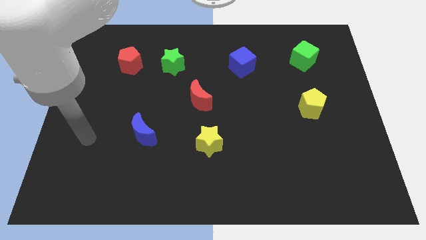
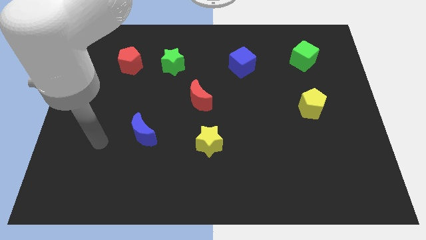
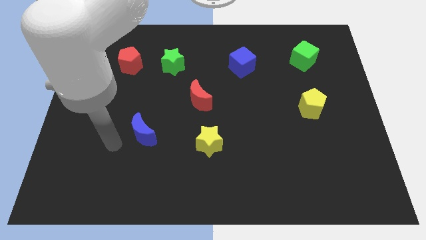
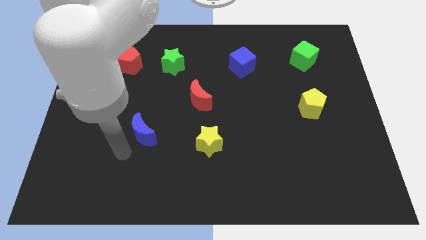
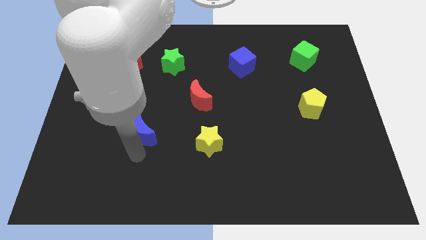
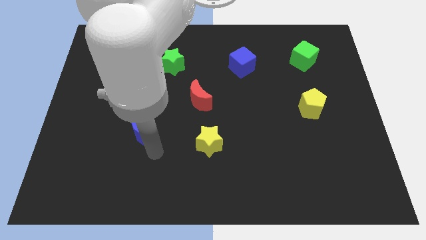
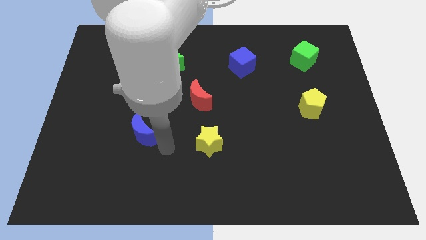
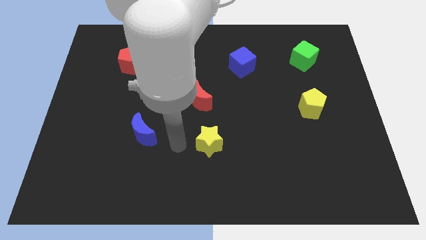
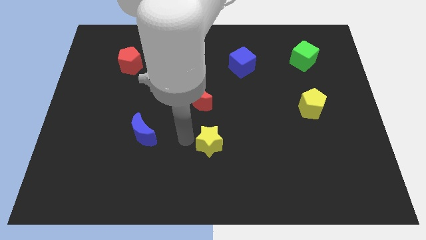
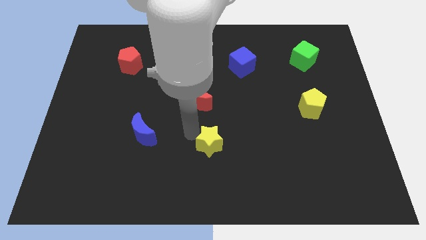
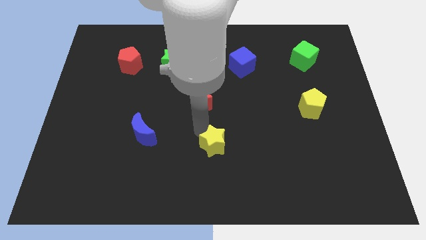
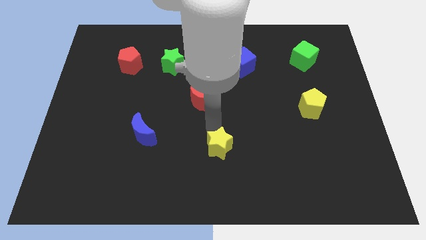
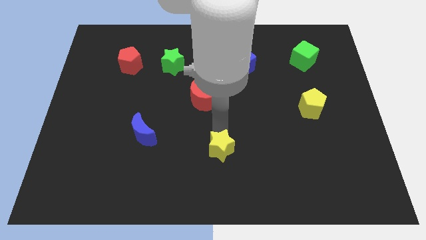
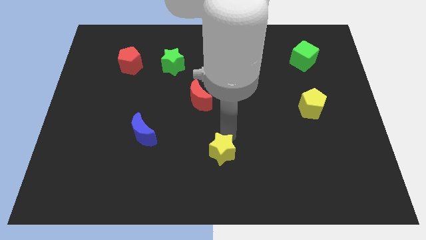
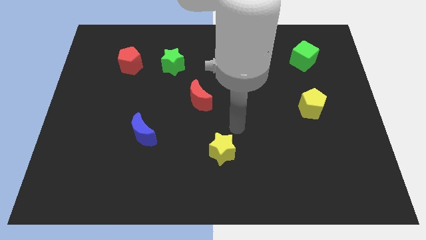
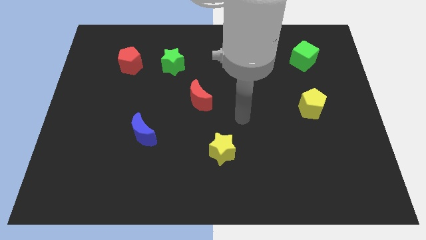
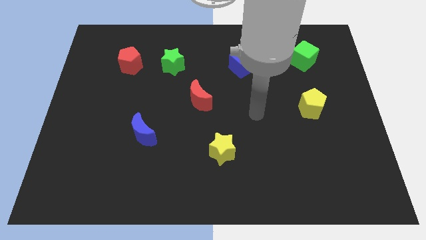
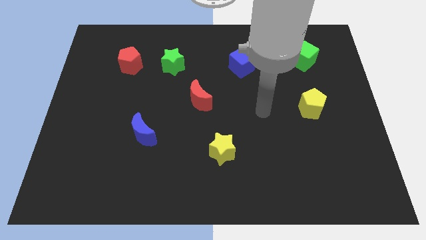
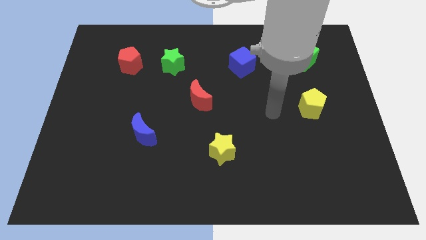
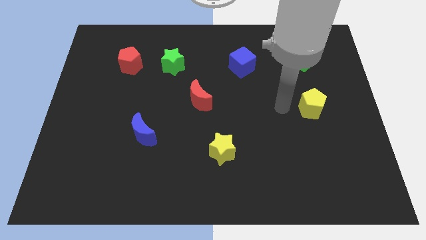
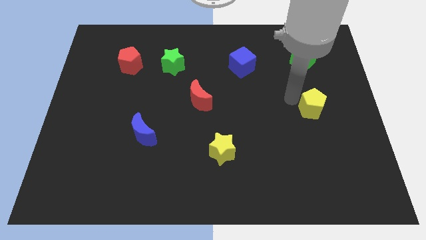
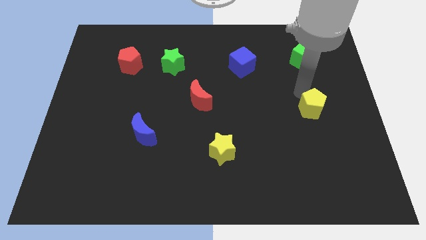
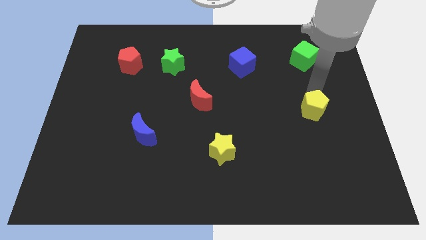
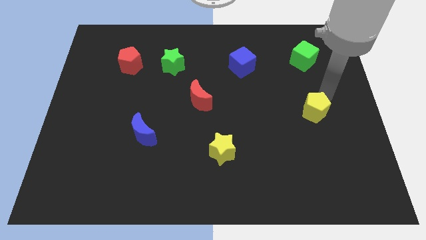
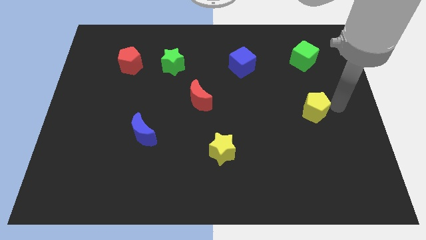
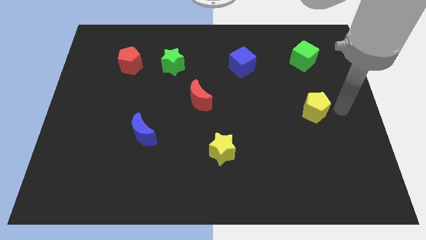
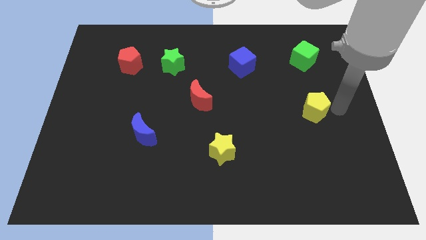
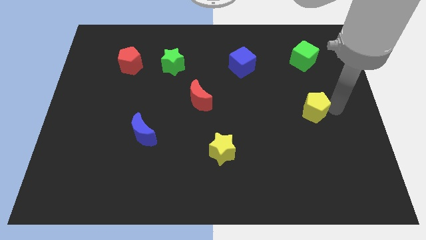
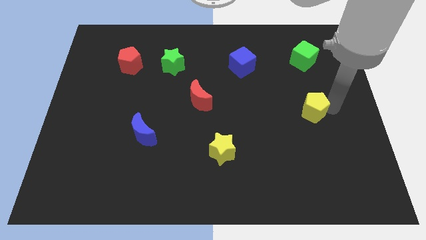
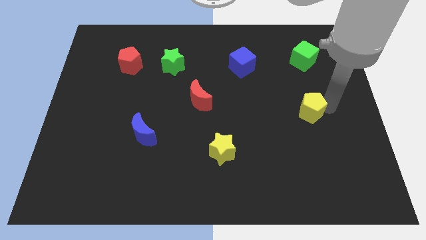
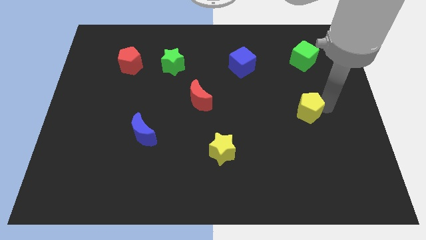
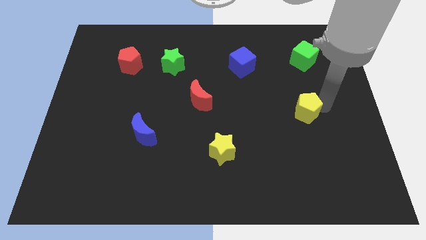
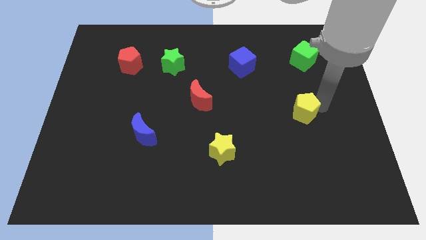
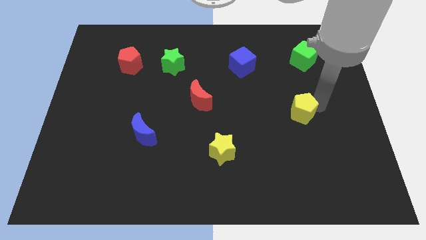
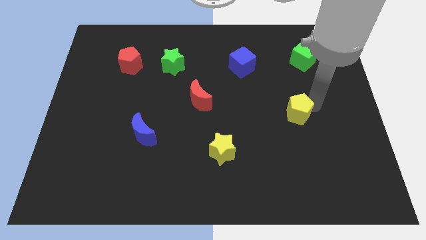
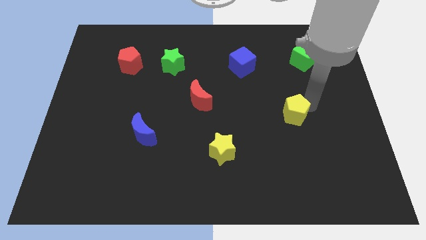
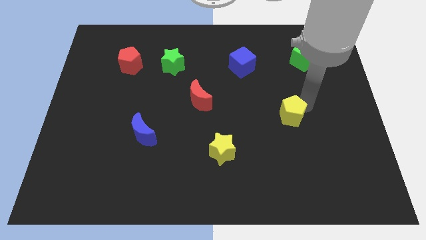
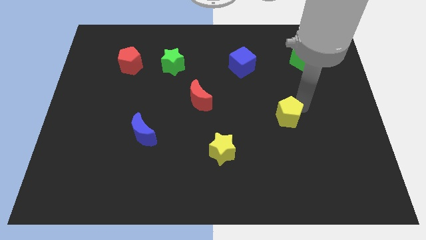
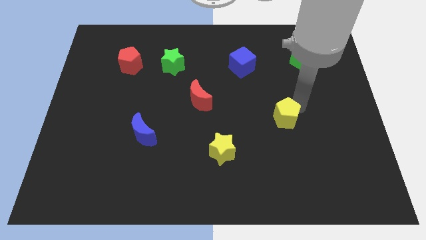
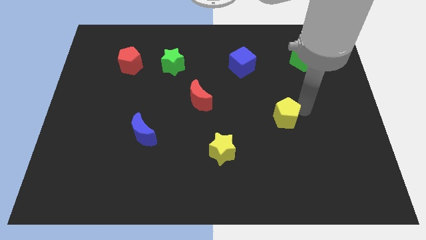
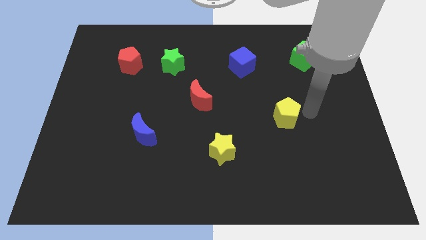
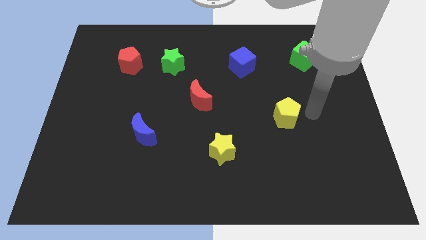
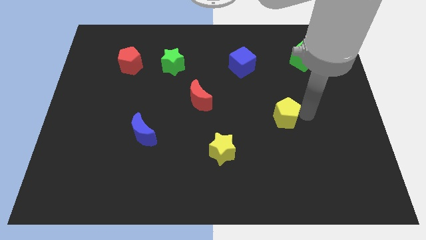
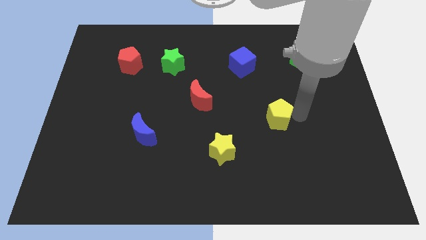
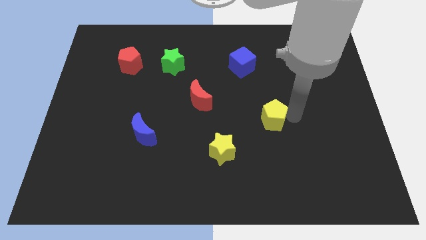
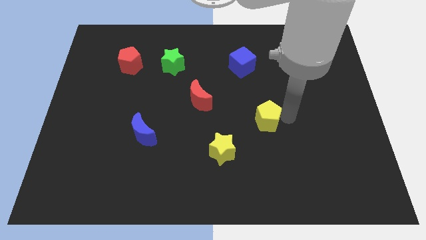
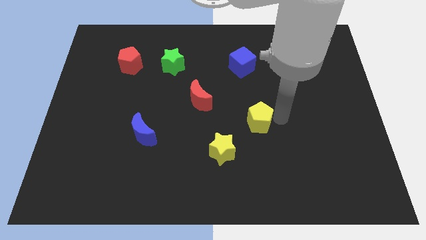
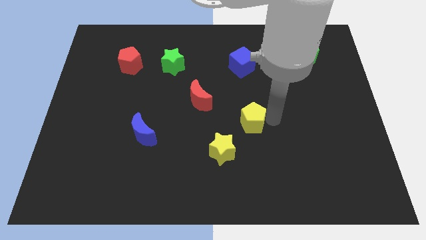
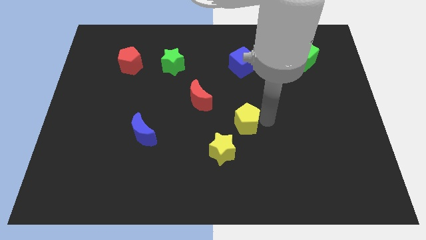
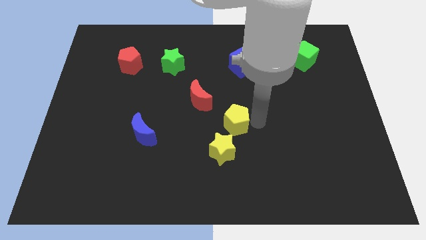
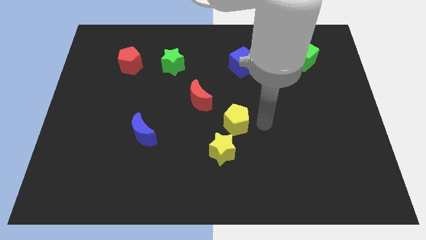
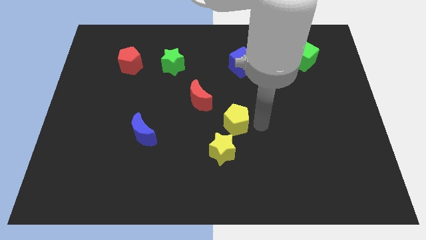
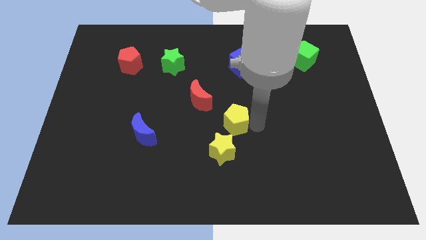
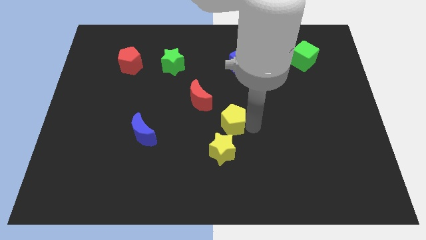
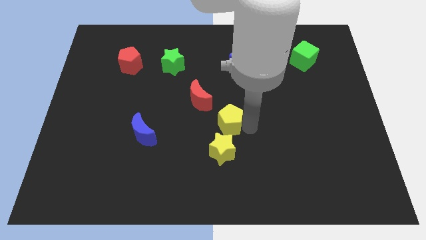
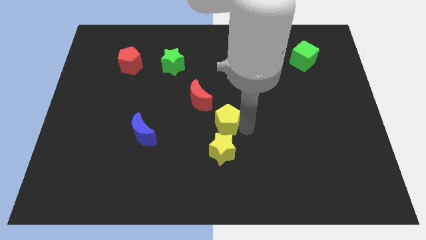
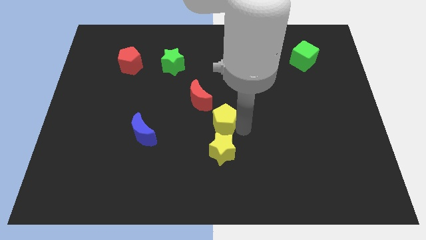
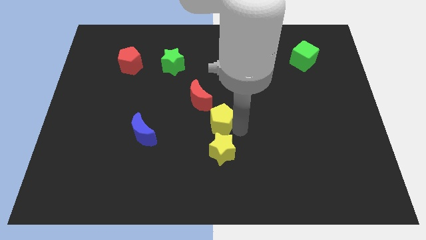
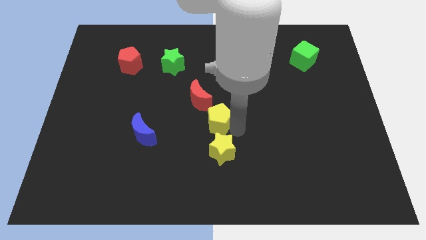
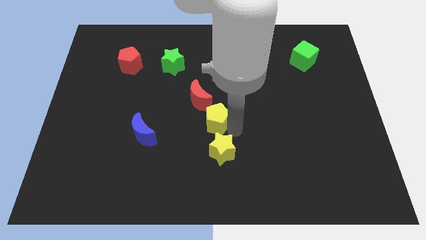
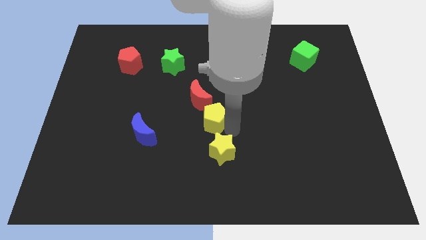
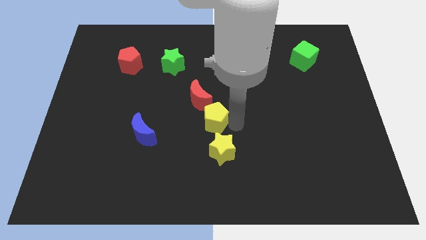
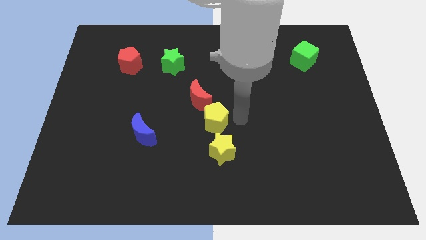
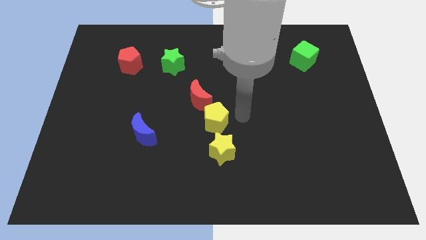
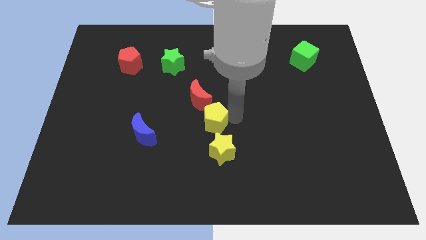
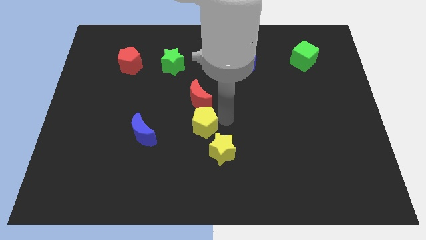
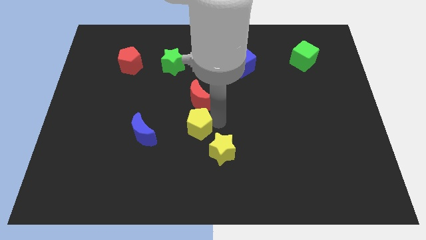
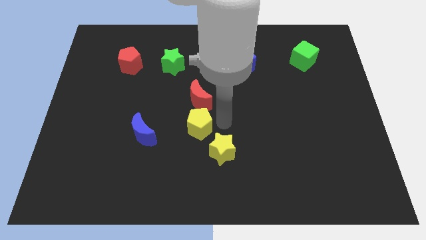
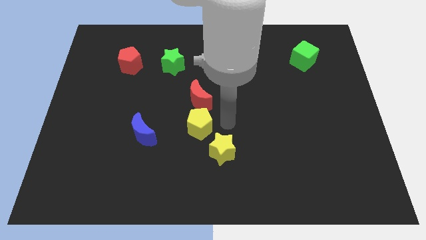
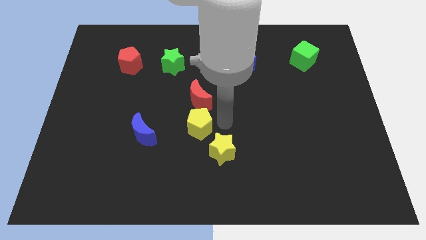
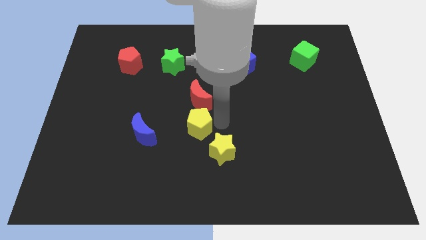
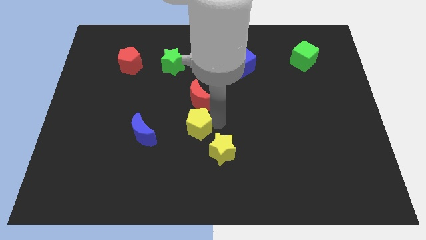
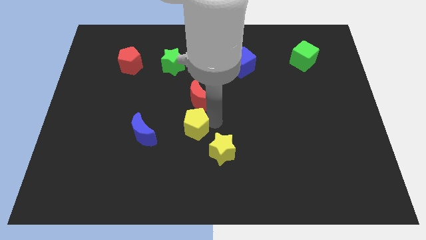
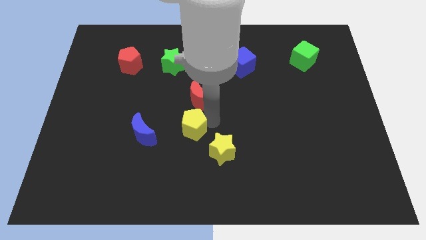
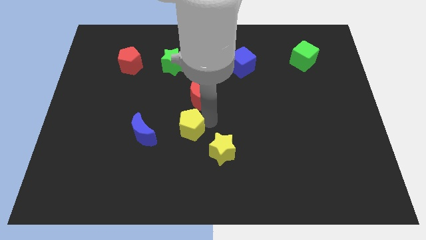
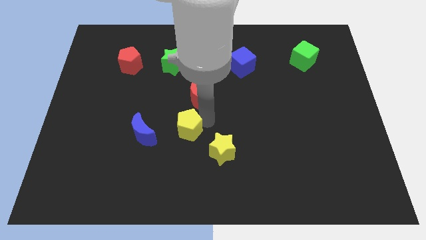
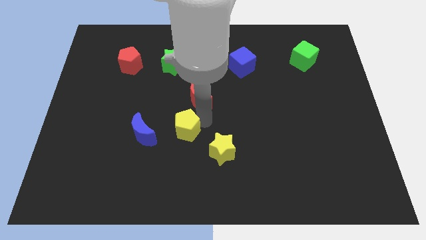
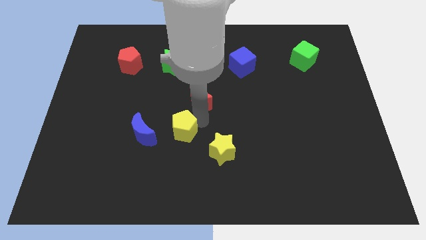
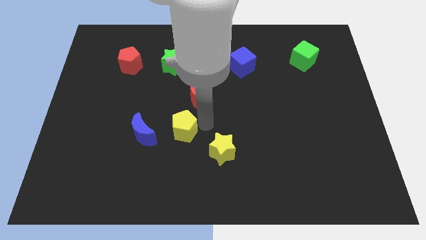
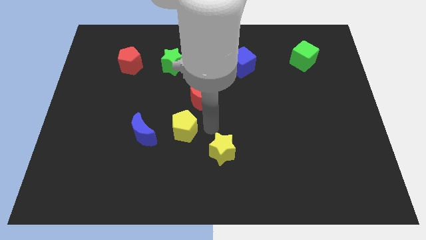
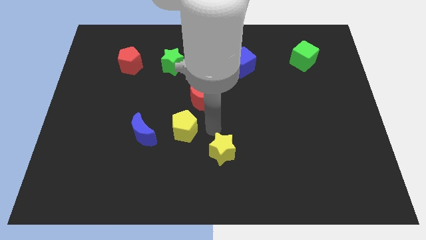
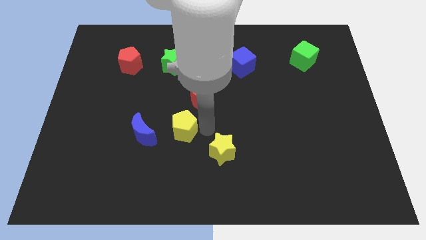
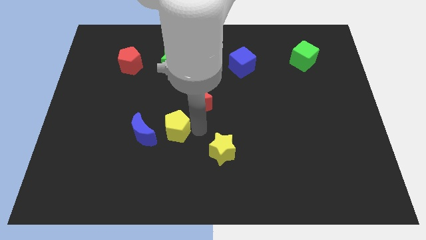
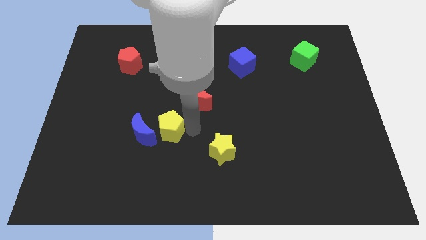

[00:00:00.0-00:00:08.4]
put the yellow pentagon to the blue moon
